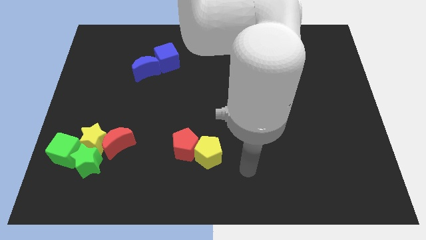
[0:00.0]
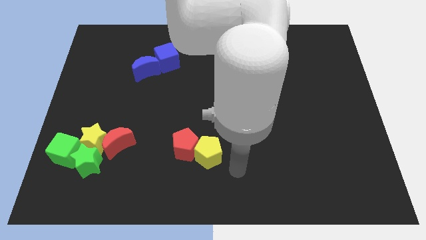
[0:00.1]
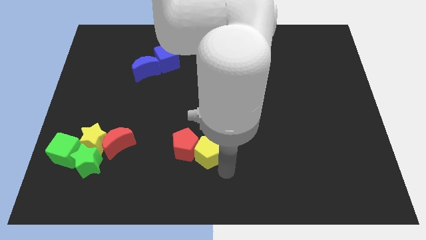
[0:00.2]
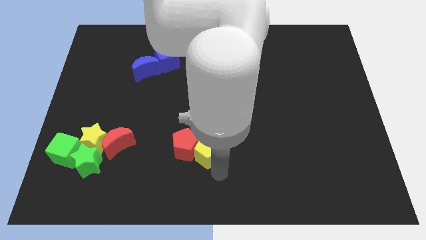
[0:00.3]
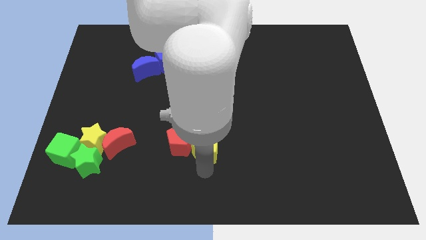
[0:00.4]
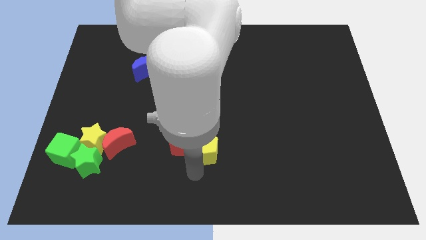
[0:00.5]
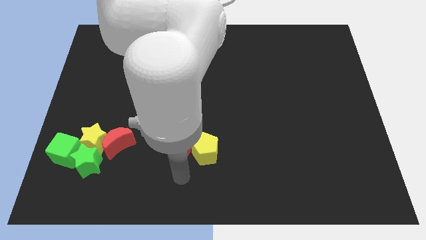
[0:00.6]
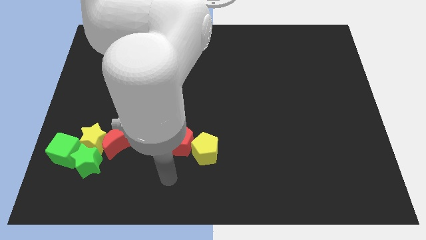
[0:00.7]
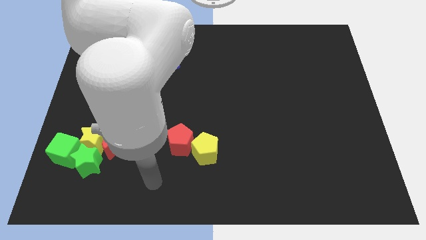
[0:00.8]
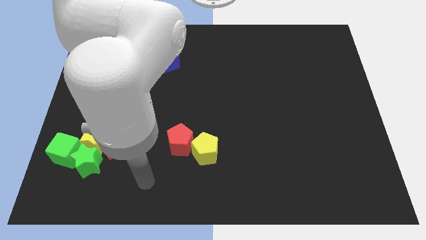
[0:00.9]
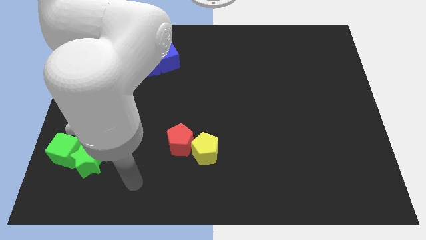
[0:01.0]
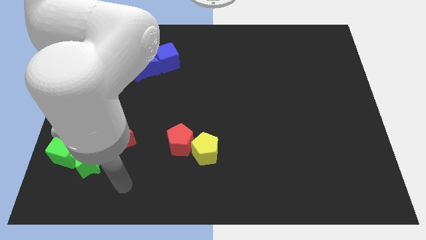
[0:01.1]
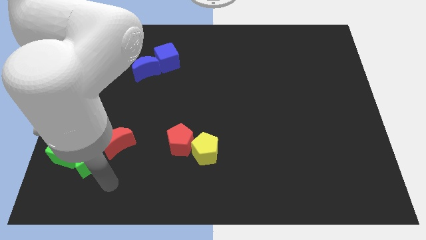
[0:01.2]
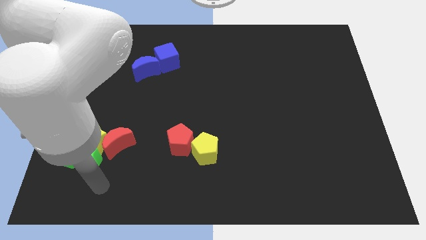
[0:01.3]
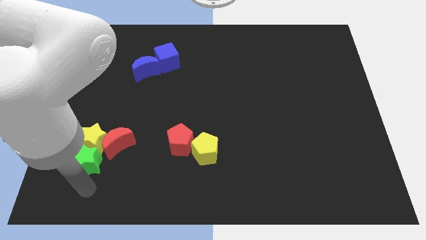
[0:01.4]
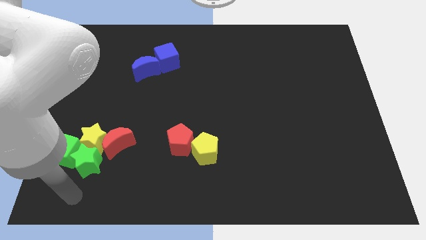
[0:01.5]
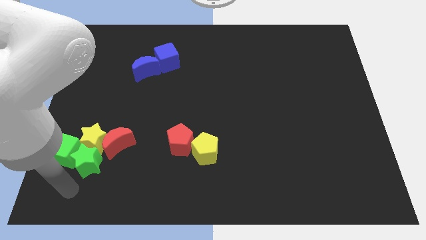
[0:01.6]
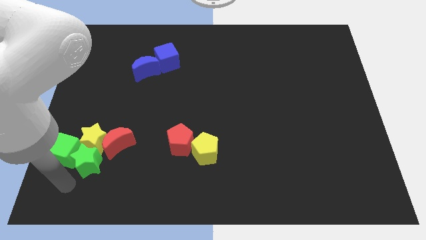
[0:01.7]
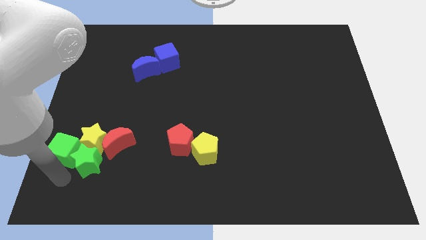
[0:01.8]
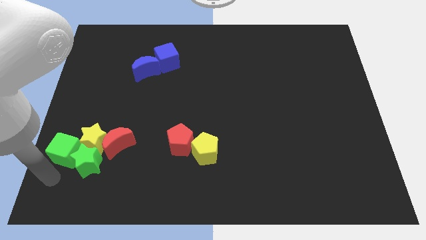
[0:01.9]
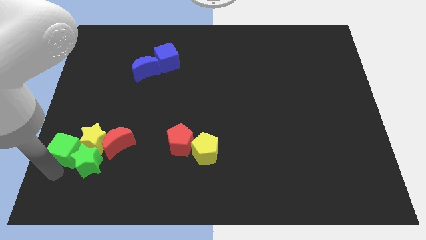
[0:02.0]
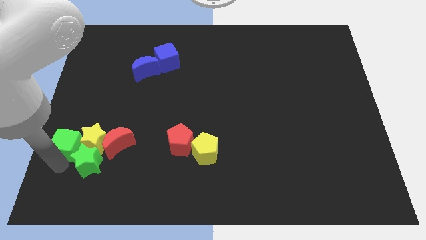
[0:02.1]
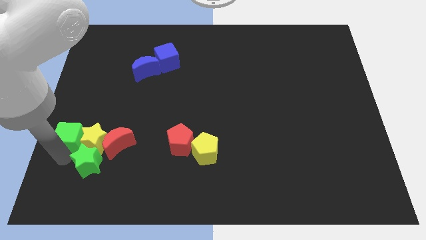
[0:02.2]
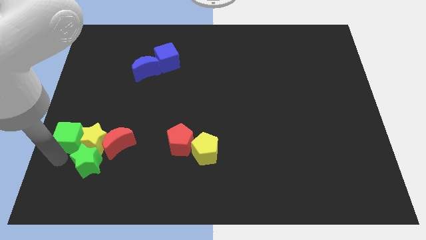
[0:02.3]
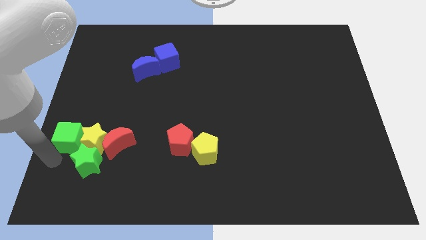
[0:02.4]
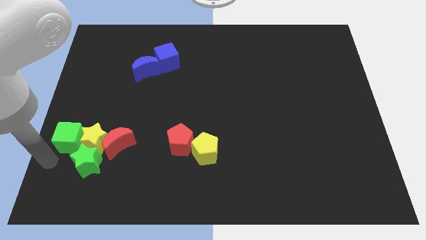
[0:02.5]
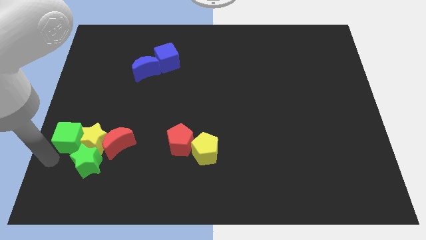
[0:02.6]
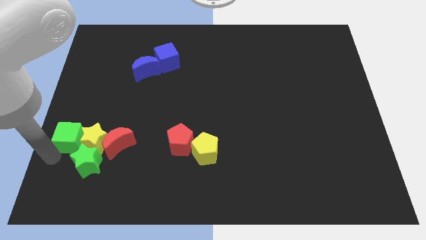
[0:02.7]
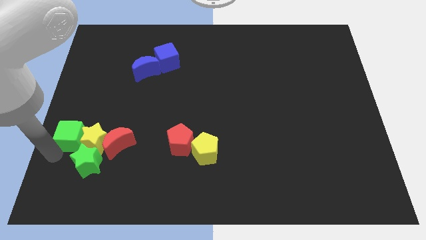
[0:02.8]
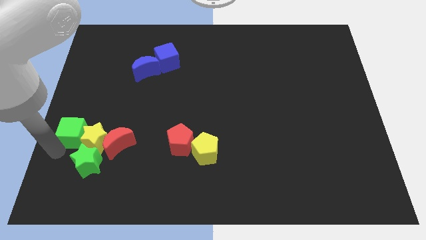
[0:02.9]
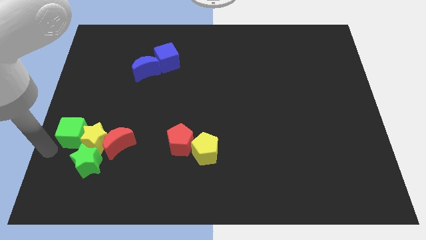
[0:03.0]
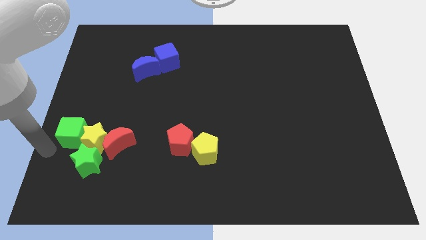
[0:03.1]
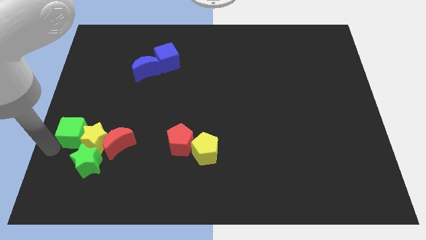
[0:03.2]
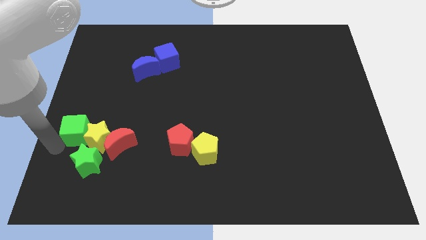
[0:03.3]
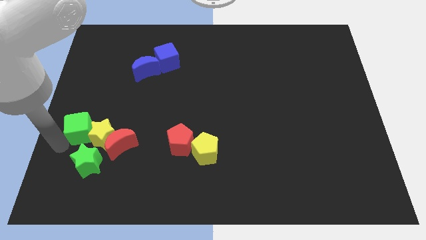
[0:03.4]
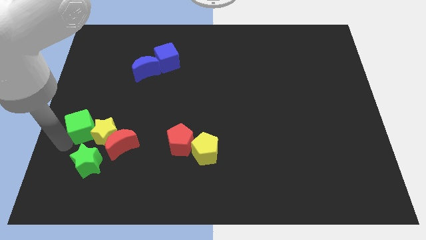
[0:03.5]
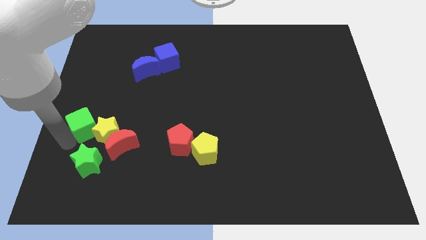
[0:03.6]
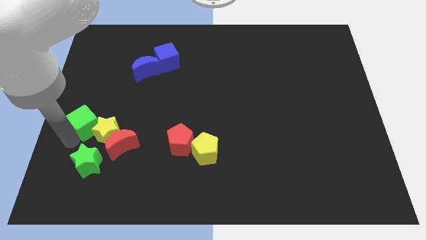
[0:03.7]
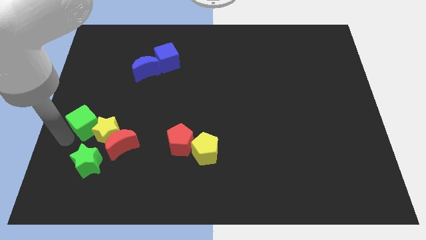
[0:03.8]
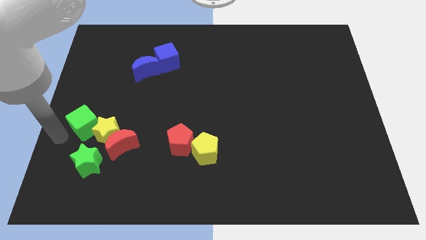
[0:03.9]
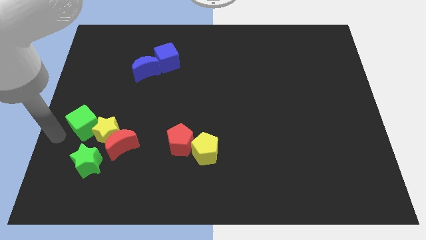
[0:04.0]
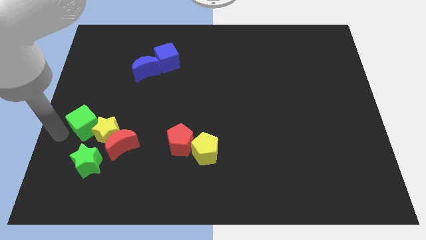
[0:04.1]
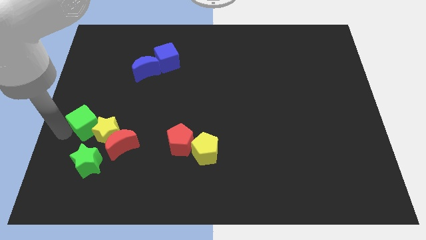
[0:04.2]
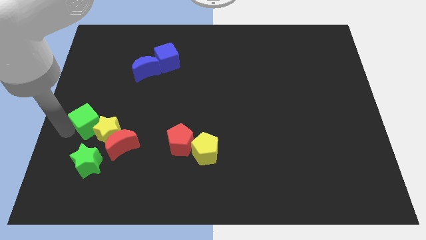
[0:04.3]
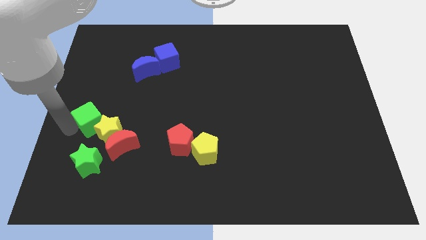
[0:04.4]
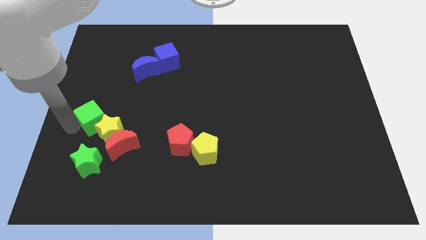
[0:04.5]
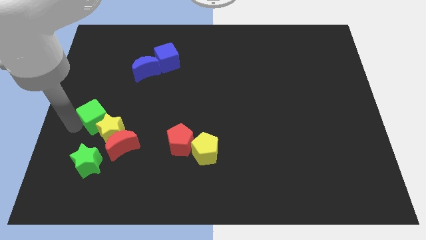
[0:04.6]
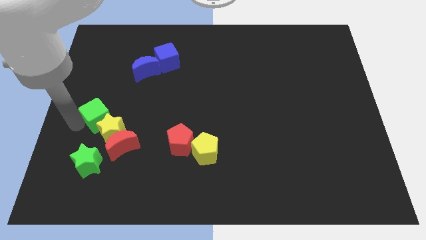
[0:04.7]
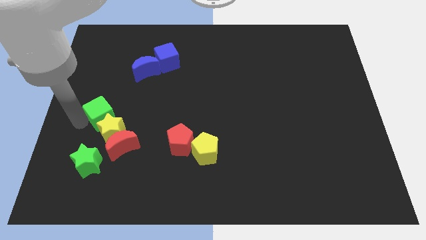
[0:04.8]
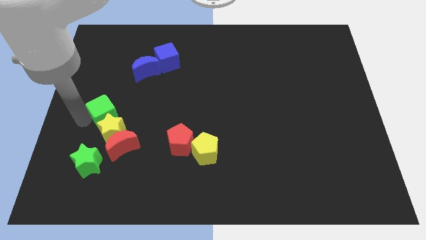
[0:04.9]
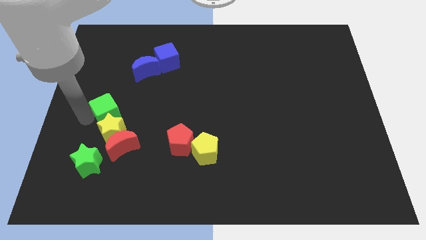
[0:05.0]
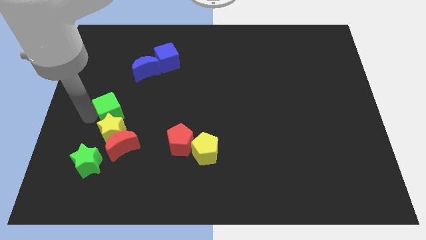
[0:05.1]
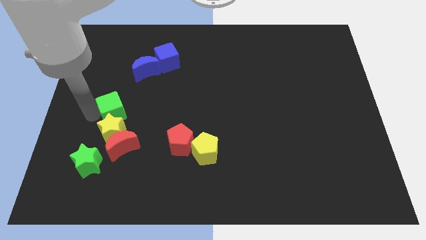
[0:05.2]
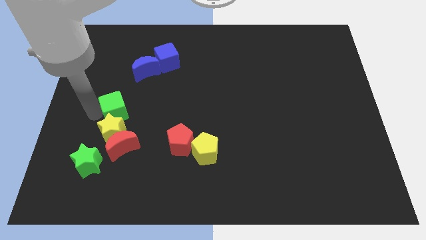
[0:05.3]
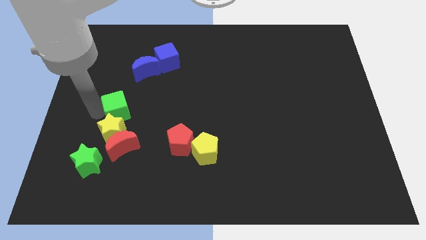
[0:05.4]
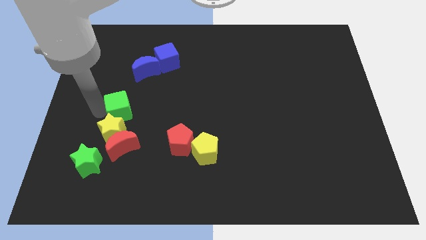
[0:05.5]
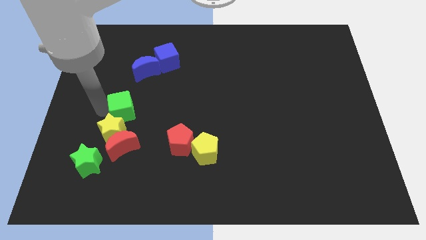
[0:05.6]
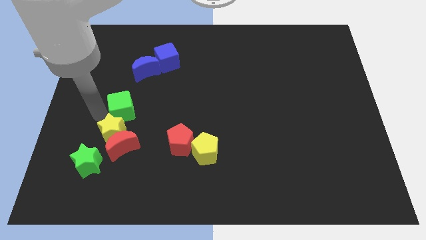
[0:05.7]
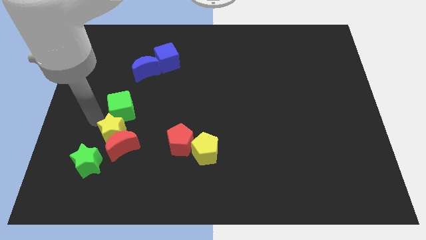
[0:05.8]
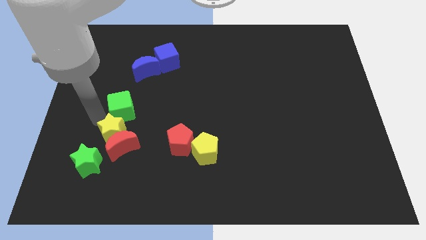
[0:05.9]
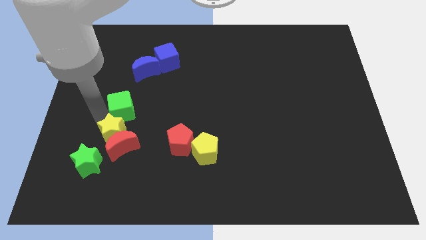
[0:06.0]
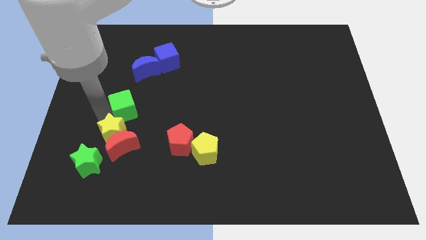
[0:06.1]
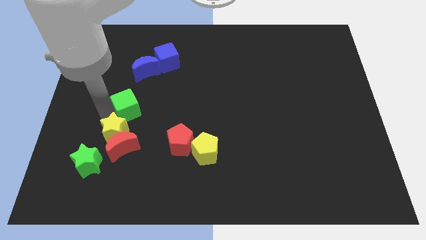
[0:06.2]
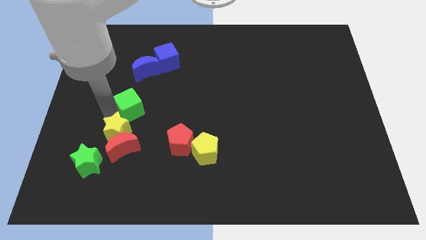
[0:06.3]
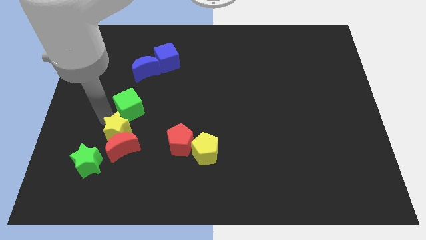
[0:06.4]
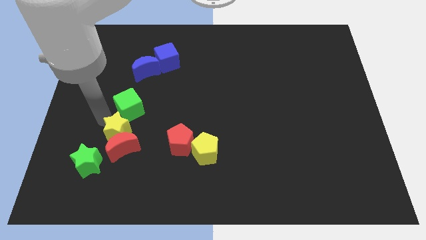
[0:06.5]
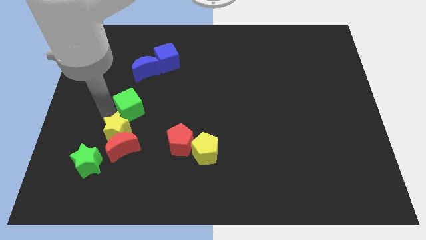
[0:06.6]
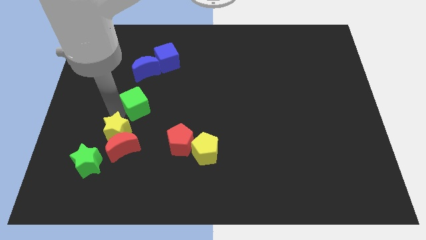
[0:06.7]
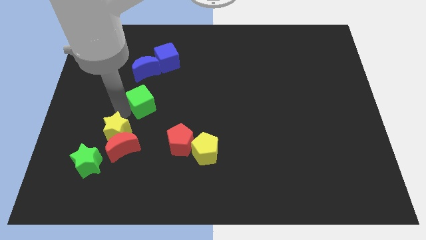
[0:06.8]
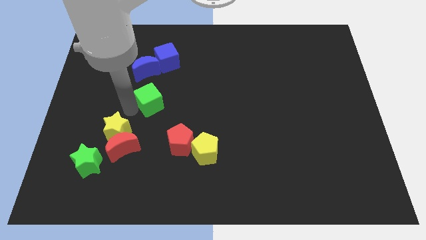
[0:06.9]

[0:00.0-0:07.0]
push the green cube to the bottom of the blue cube
